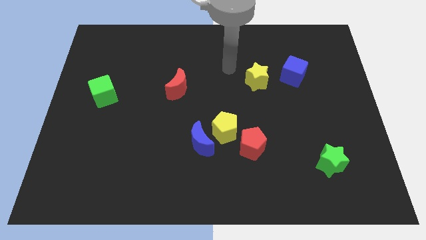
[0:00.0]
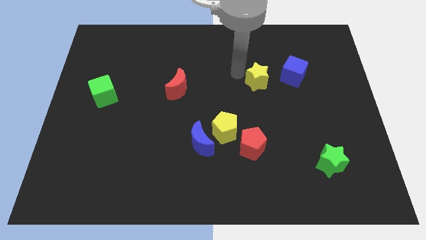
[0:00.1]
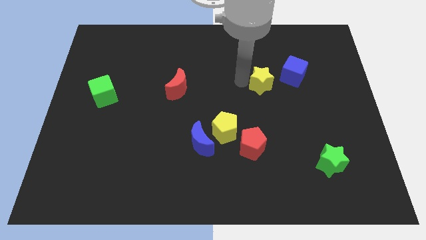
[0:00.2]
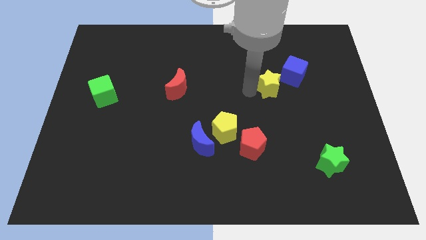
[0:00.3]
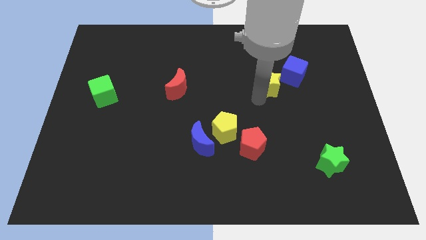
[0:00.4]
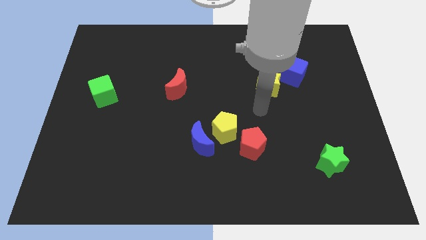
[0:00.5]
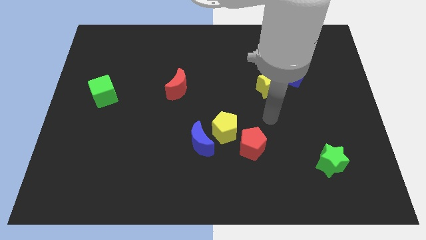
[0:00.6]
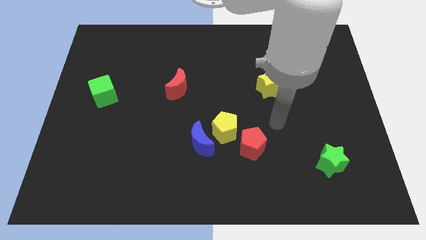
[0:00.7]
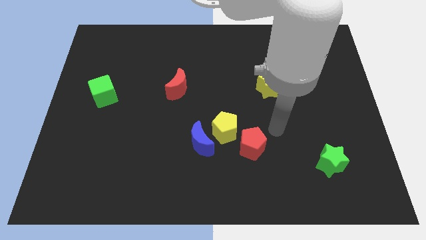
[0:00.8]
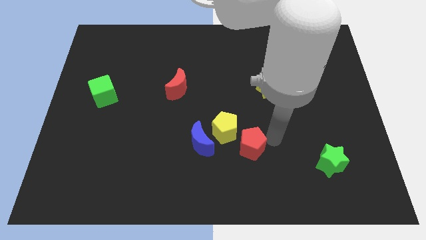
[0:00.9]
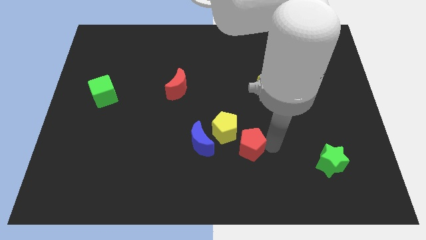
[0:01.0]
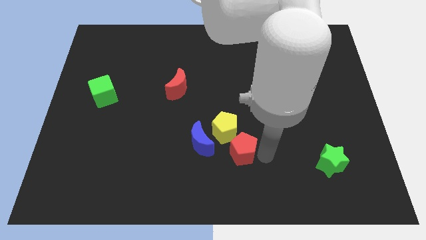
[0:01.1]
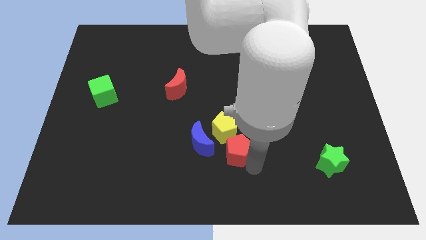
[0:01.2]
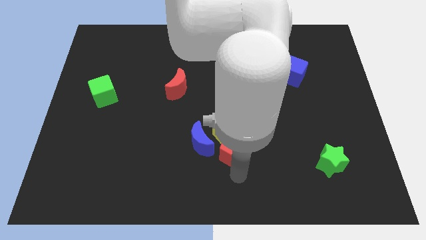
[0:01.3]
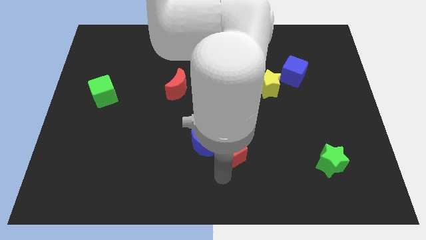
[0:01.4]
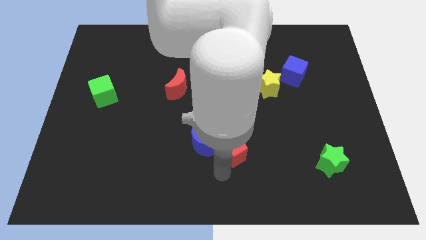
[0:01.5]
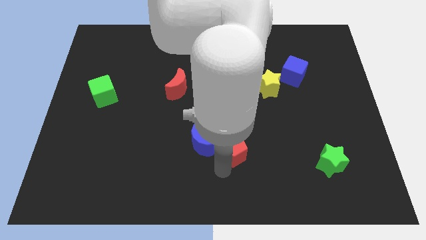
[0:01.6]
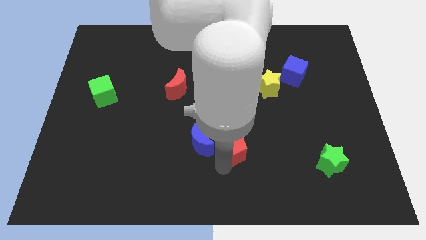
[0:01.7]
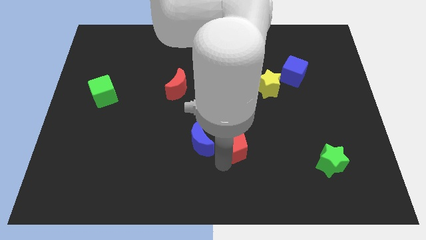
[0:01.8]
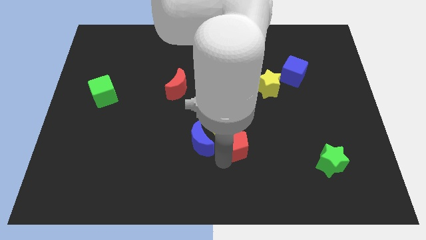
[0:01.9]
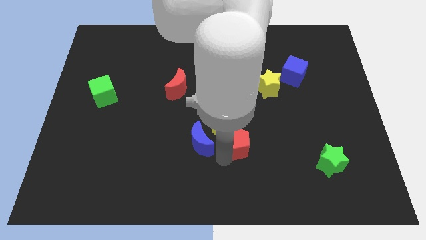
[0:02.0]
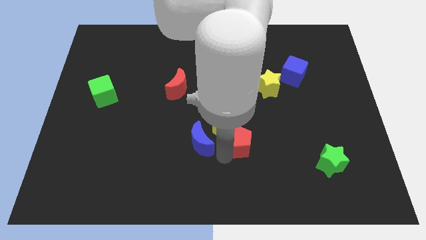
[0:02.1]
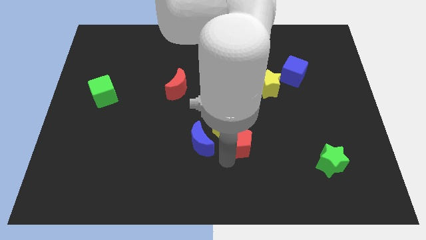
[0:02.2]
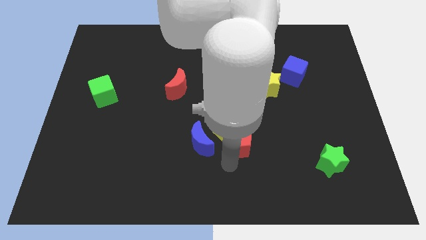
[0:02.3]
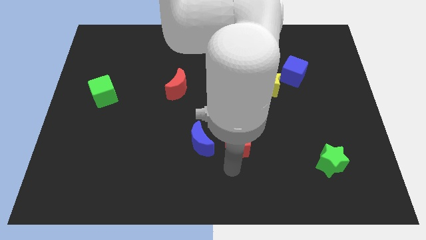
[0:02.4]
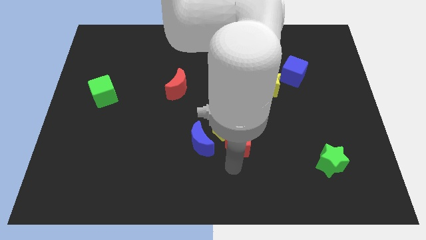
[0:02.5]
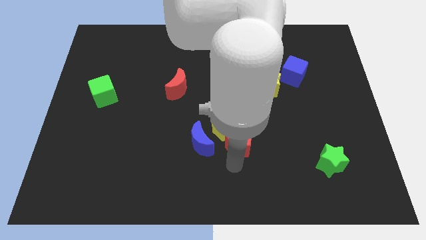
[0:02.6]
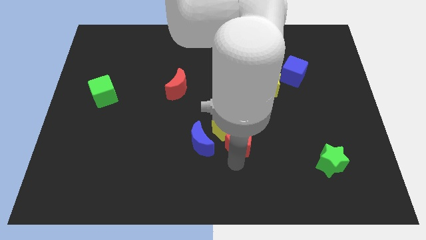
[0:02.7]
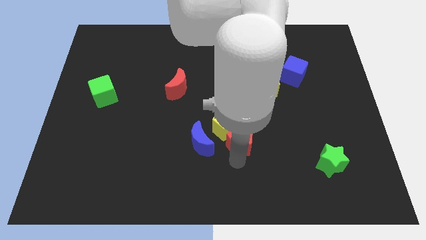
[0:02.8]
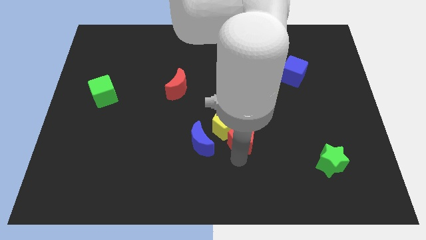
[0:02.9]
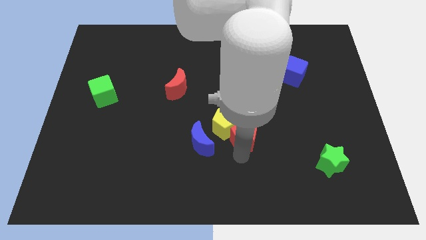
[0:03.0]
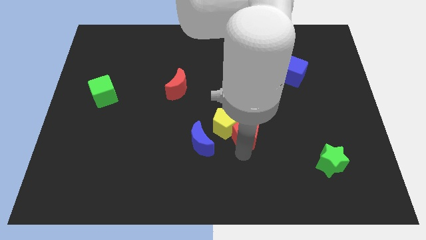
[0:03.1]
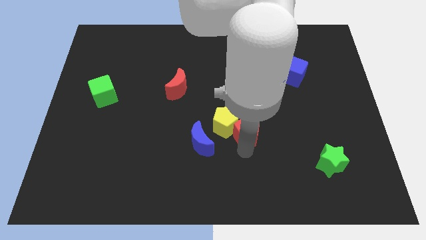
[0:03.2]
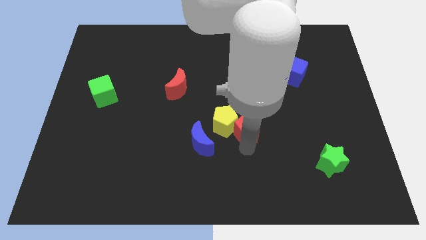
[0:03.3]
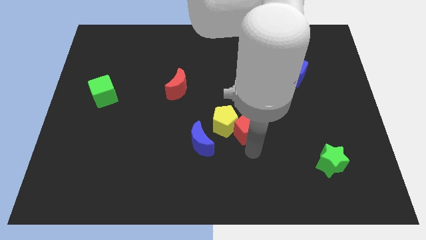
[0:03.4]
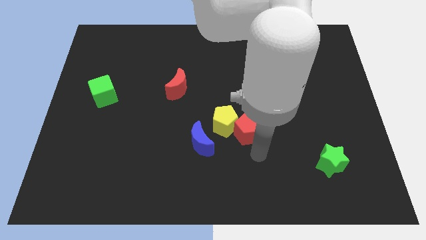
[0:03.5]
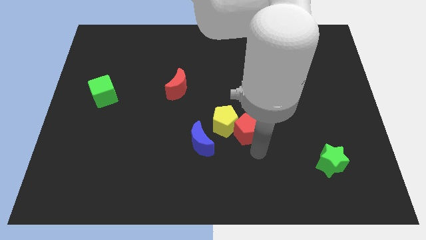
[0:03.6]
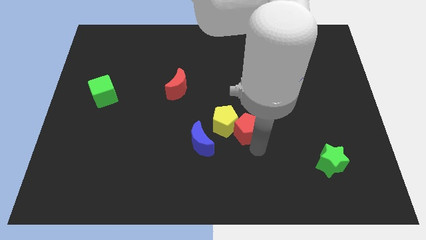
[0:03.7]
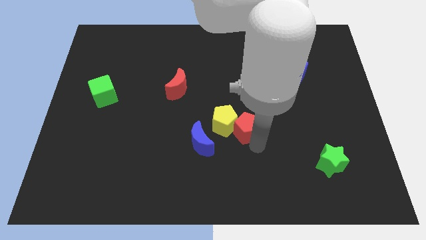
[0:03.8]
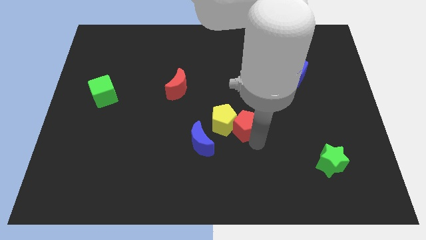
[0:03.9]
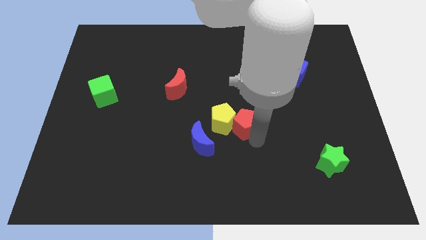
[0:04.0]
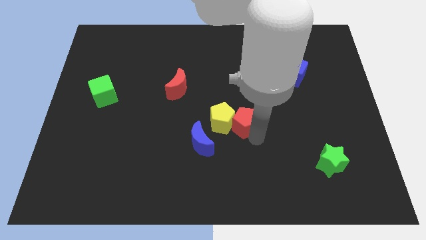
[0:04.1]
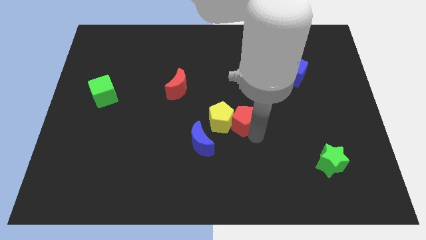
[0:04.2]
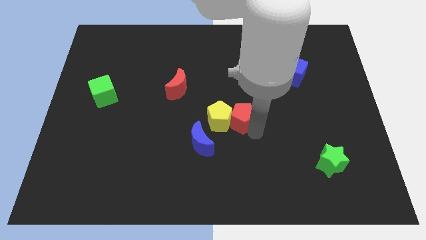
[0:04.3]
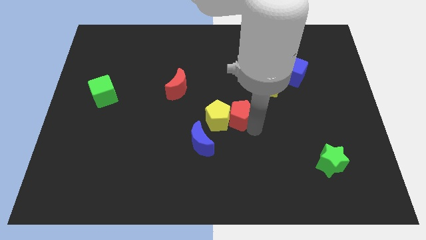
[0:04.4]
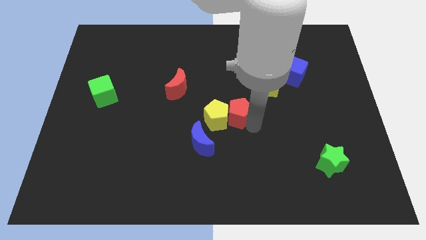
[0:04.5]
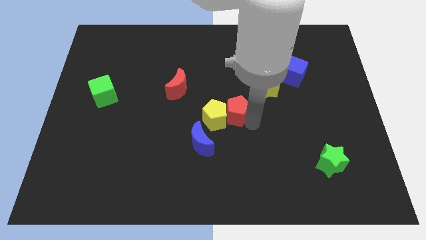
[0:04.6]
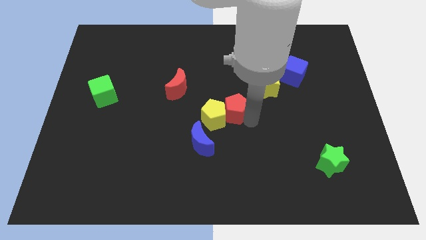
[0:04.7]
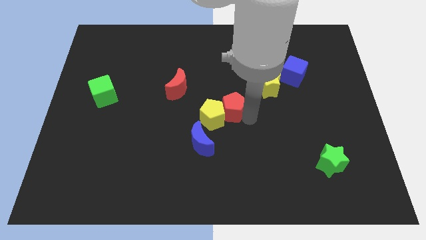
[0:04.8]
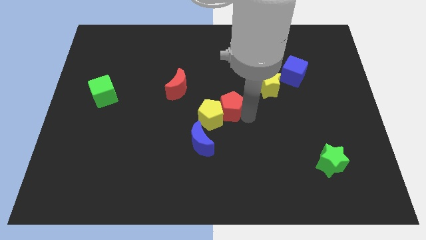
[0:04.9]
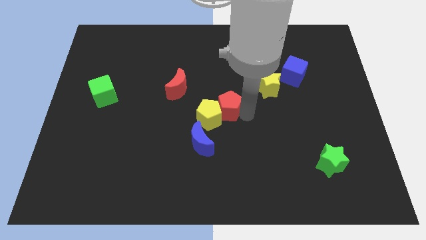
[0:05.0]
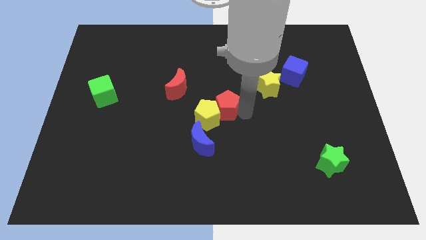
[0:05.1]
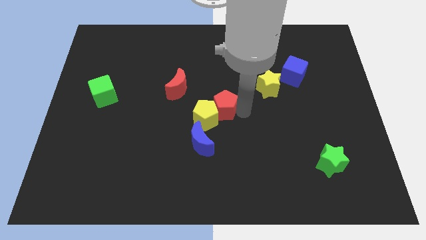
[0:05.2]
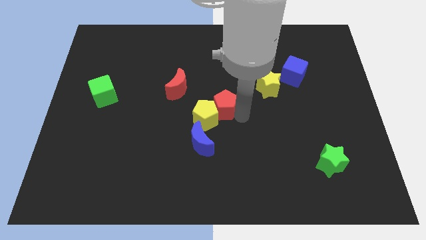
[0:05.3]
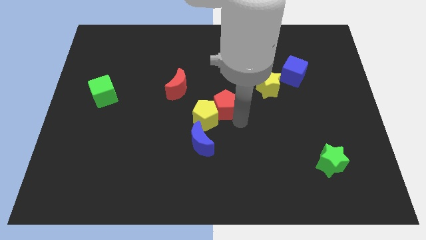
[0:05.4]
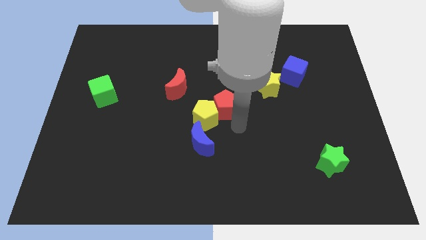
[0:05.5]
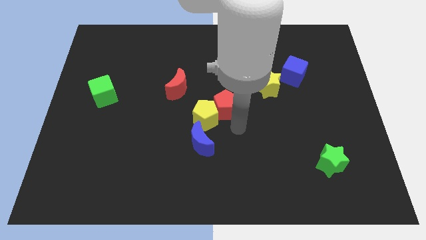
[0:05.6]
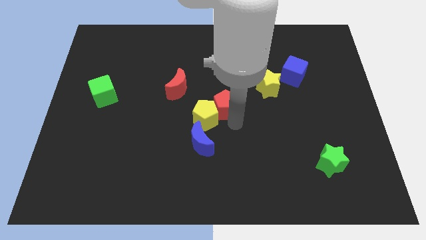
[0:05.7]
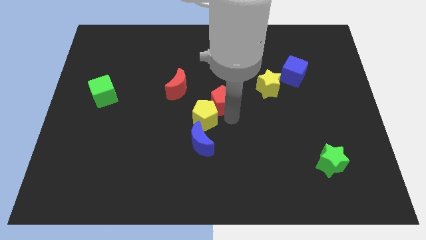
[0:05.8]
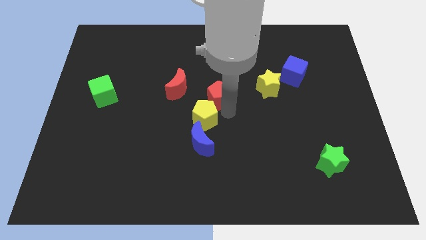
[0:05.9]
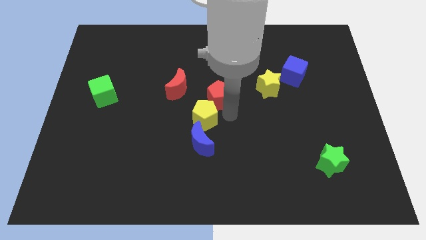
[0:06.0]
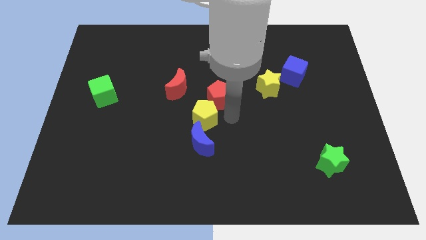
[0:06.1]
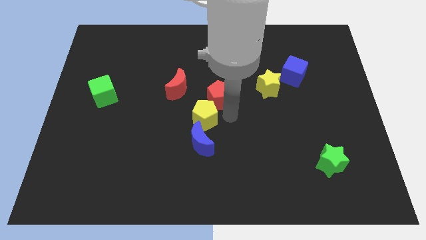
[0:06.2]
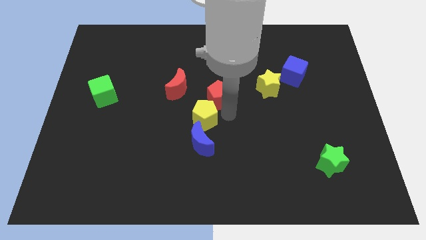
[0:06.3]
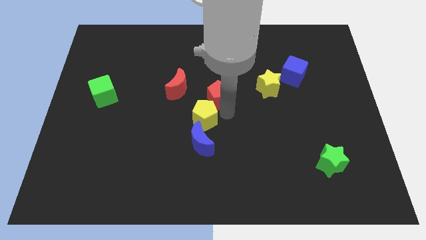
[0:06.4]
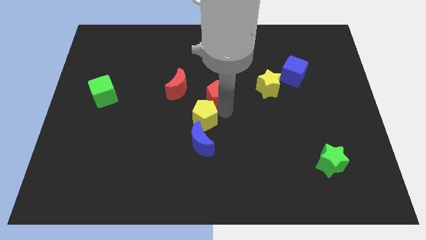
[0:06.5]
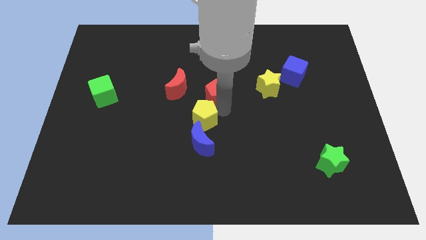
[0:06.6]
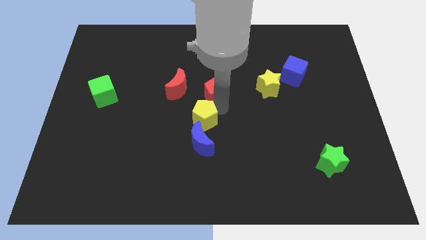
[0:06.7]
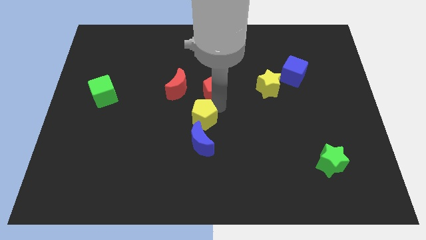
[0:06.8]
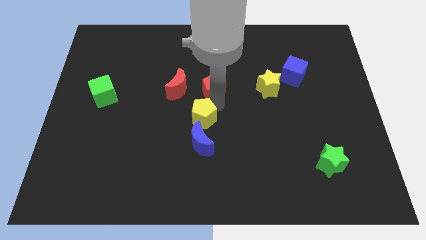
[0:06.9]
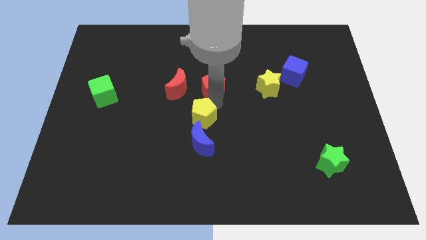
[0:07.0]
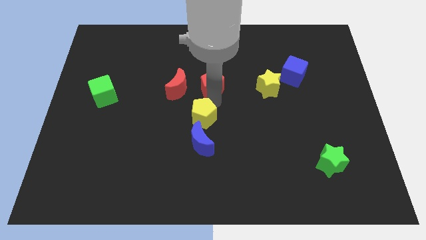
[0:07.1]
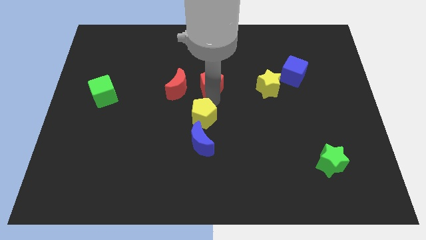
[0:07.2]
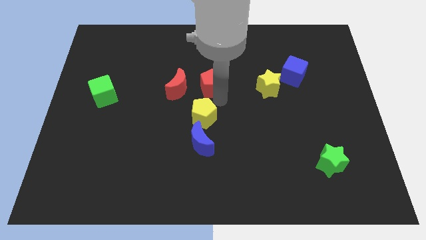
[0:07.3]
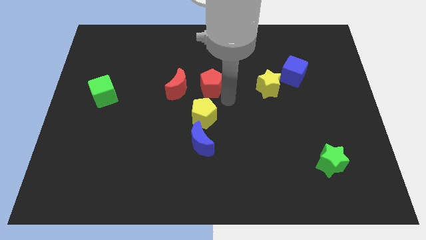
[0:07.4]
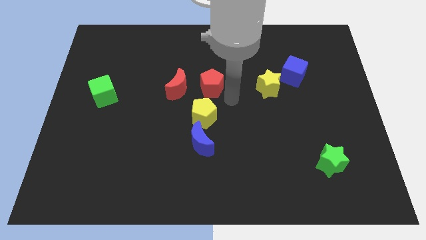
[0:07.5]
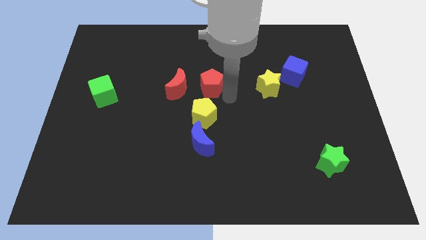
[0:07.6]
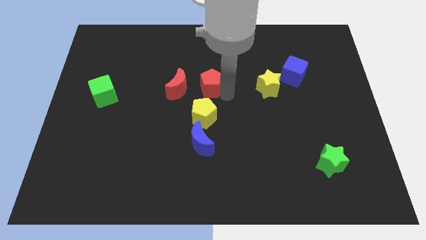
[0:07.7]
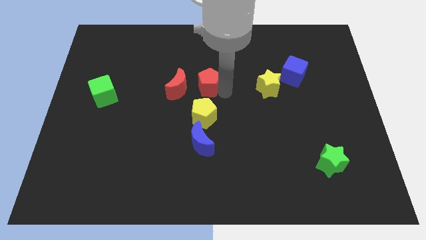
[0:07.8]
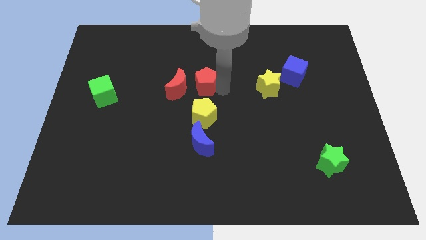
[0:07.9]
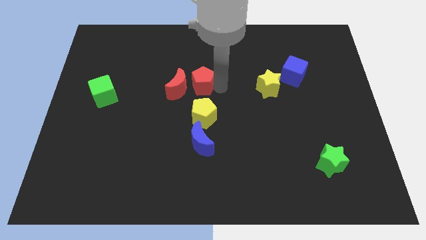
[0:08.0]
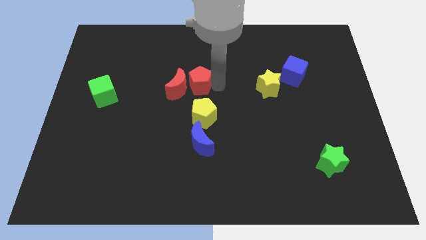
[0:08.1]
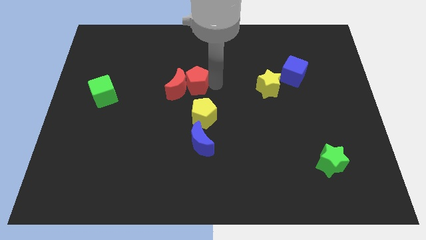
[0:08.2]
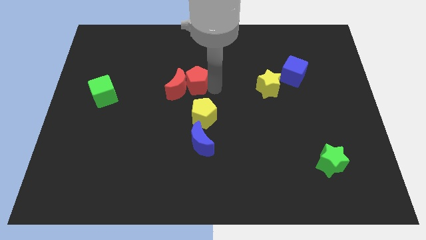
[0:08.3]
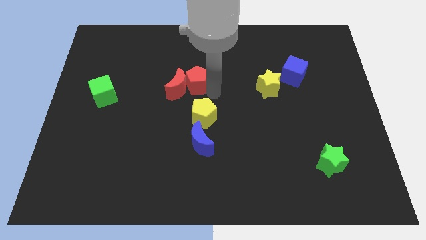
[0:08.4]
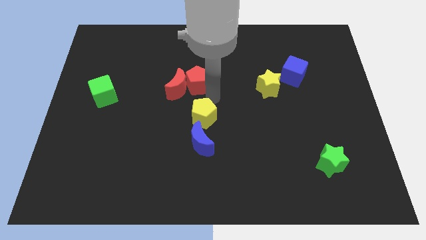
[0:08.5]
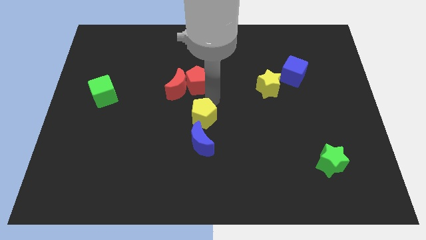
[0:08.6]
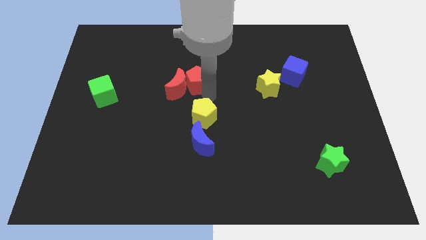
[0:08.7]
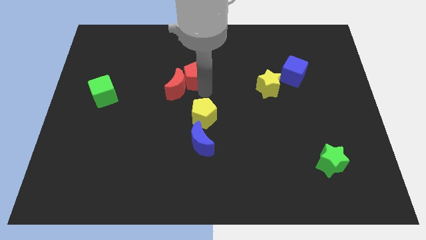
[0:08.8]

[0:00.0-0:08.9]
push the red pentagon above the red moon
